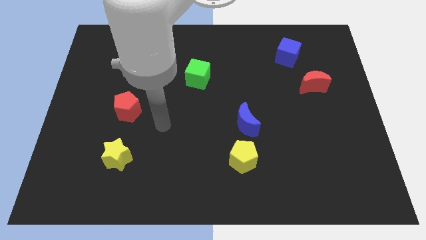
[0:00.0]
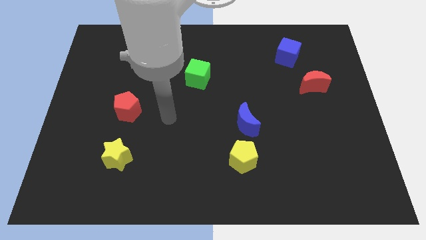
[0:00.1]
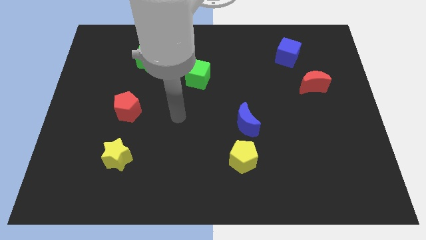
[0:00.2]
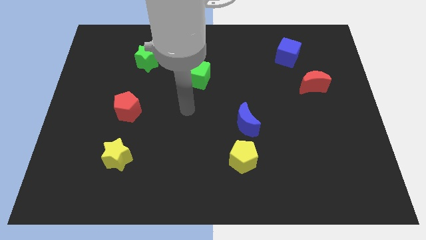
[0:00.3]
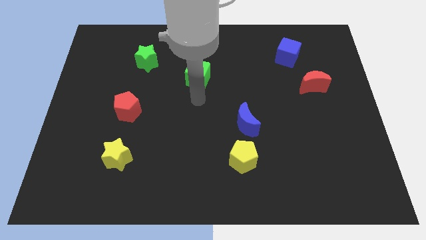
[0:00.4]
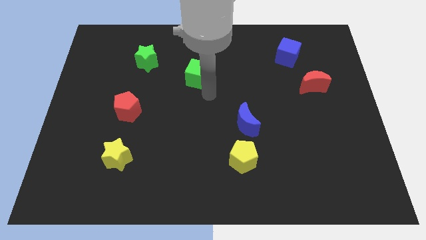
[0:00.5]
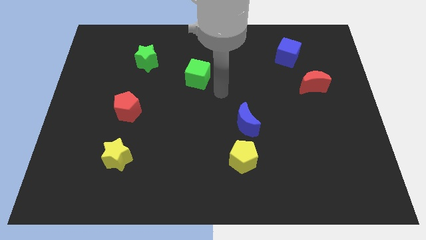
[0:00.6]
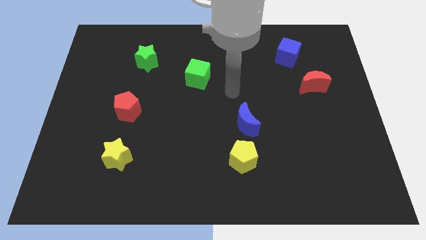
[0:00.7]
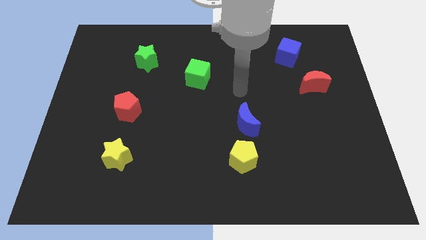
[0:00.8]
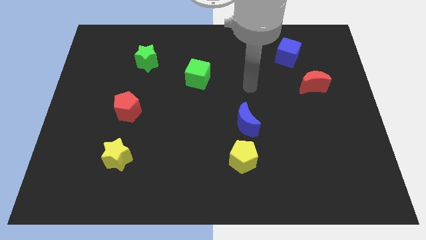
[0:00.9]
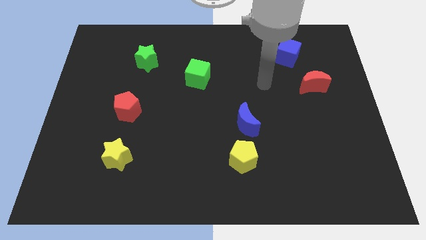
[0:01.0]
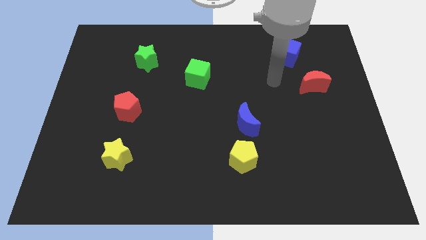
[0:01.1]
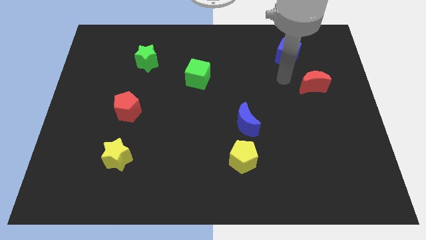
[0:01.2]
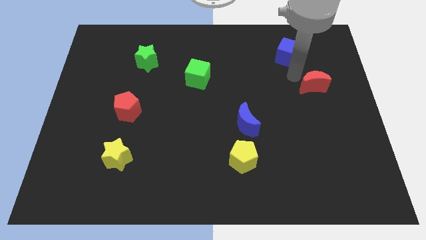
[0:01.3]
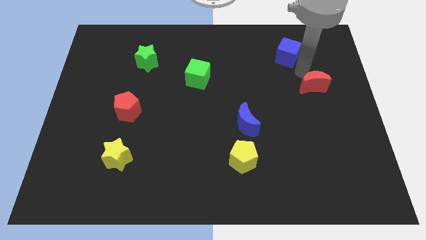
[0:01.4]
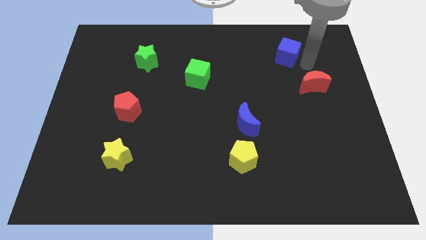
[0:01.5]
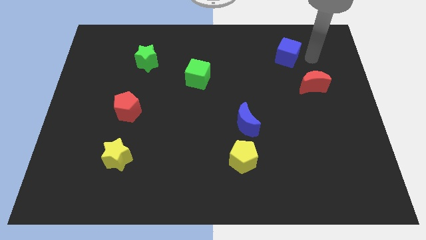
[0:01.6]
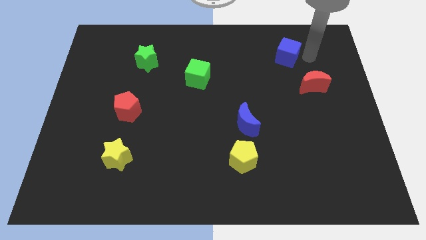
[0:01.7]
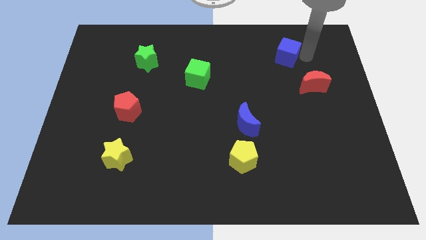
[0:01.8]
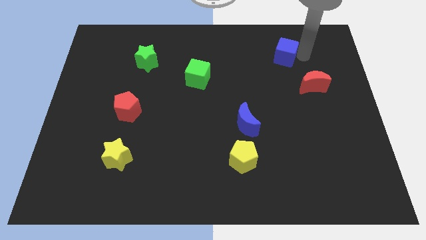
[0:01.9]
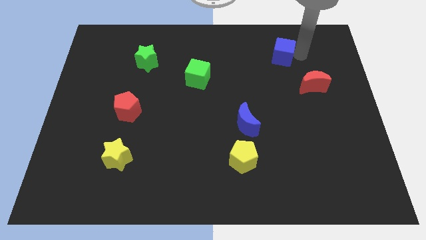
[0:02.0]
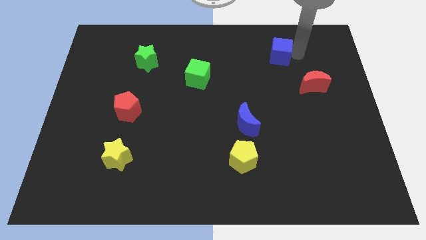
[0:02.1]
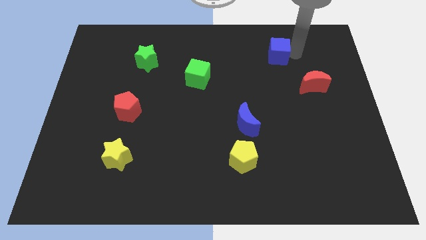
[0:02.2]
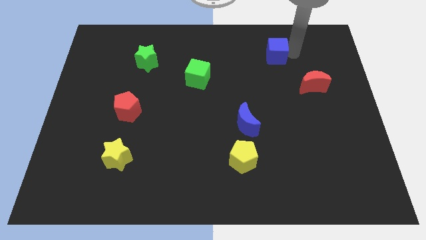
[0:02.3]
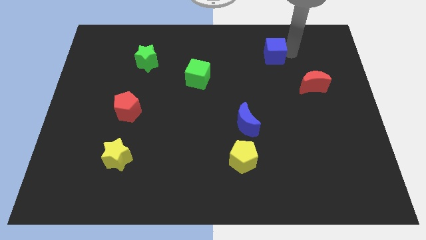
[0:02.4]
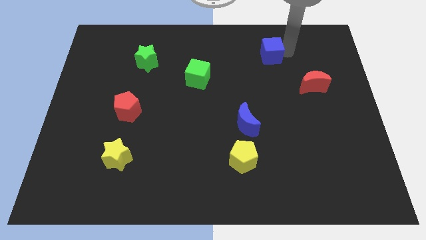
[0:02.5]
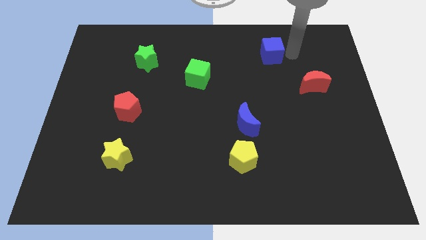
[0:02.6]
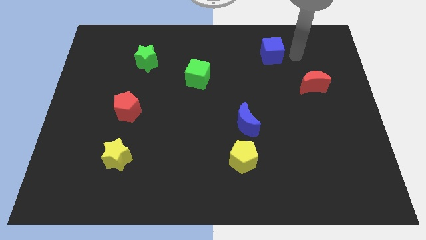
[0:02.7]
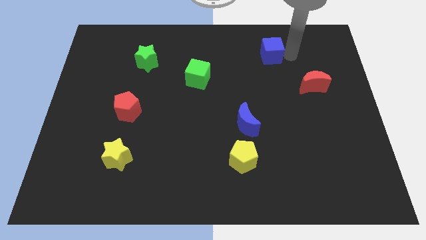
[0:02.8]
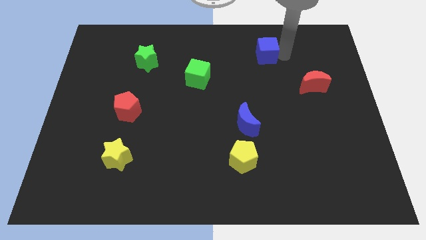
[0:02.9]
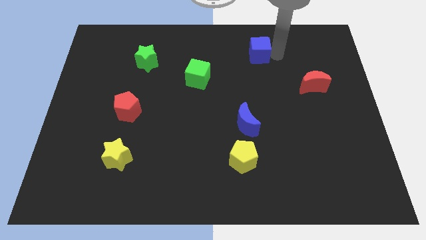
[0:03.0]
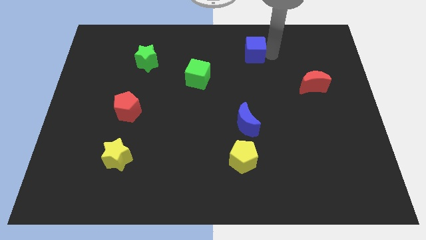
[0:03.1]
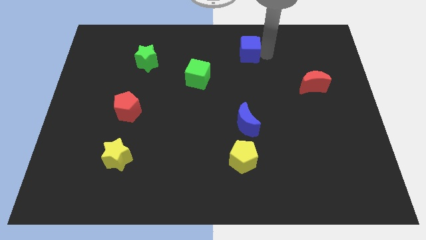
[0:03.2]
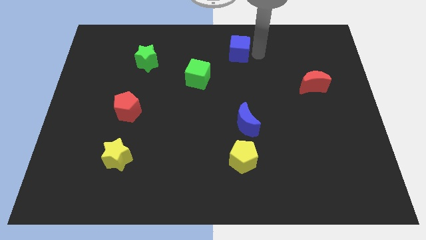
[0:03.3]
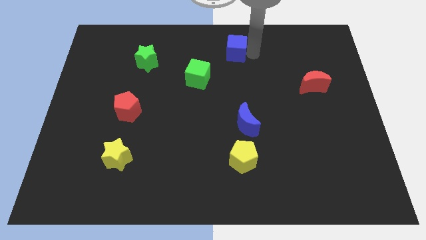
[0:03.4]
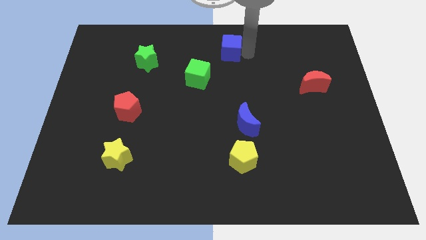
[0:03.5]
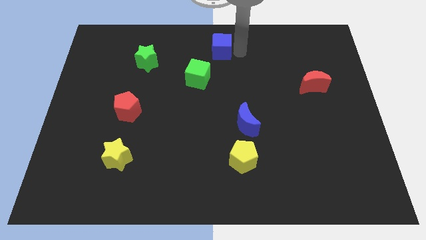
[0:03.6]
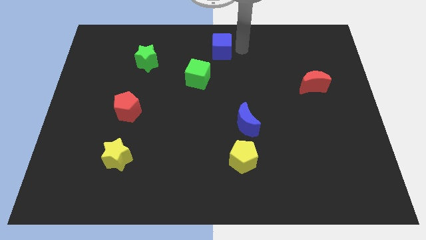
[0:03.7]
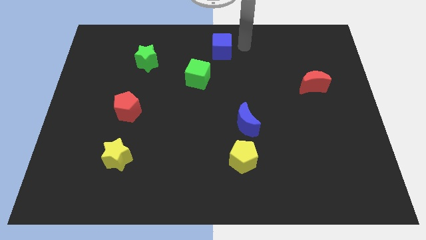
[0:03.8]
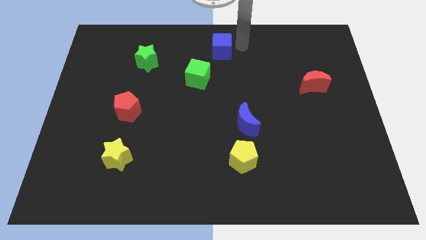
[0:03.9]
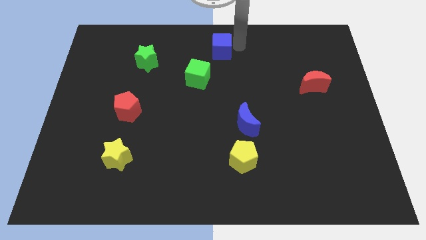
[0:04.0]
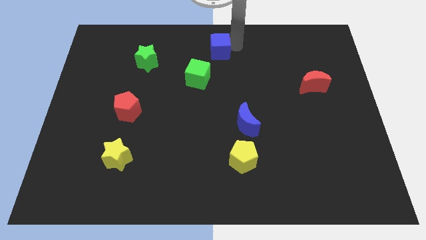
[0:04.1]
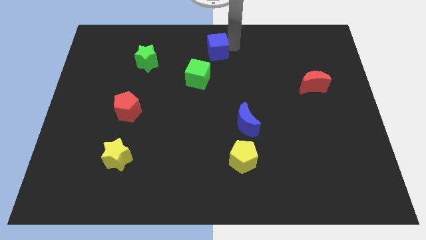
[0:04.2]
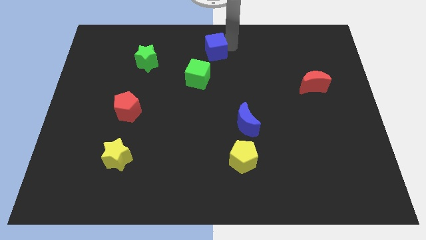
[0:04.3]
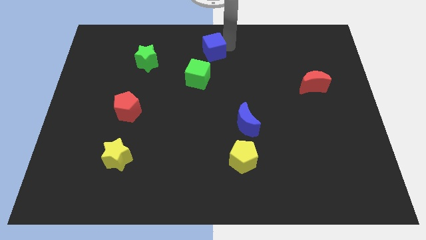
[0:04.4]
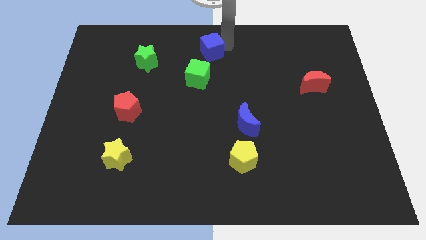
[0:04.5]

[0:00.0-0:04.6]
slide the blue cube left

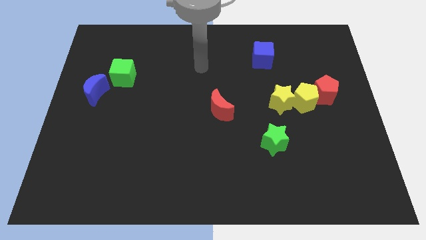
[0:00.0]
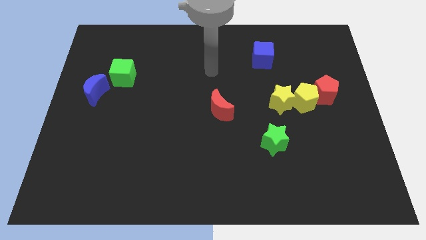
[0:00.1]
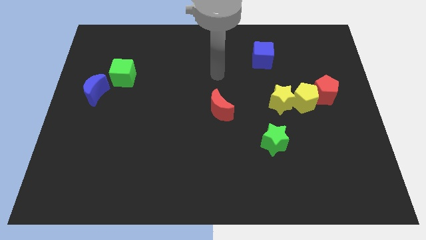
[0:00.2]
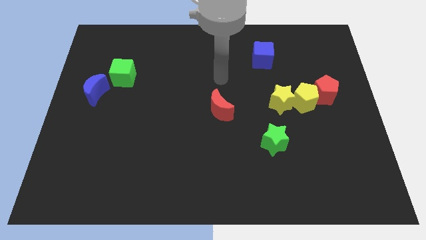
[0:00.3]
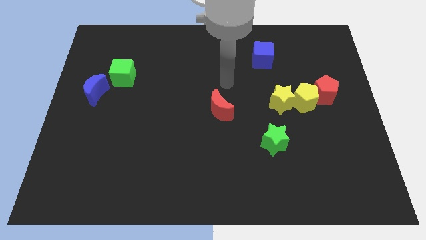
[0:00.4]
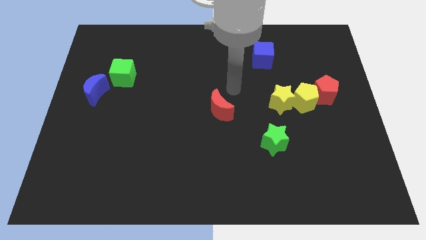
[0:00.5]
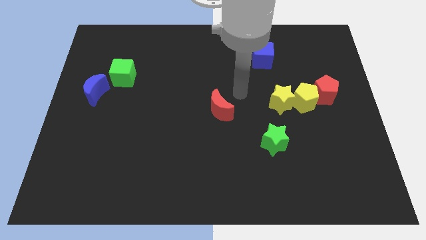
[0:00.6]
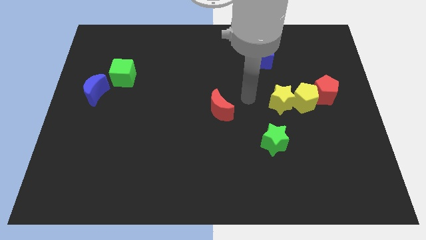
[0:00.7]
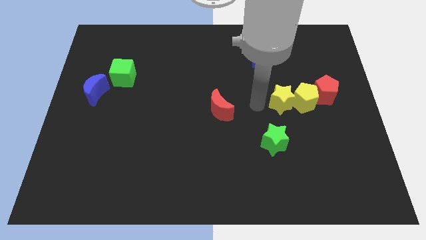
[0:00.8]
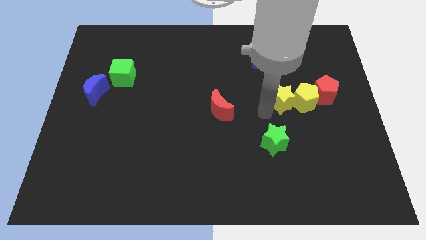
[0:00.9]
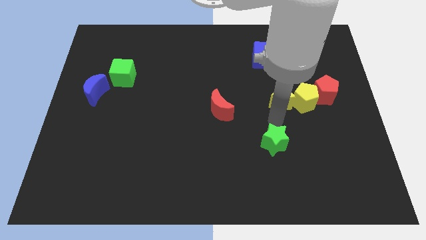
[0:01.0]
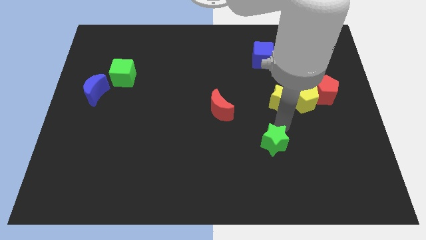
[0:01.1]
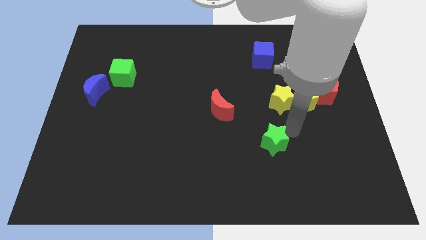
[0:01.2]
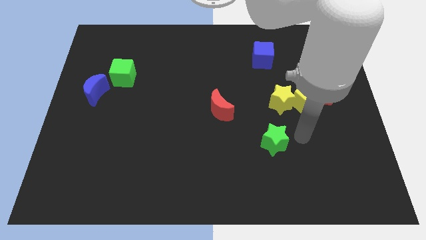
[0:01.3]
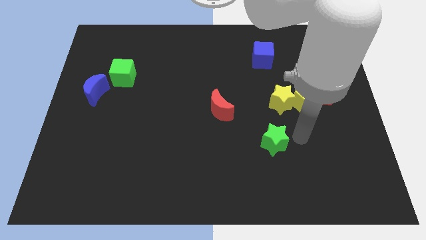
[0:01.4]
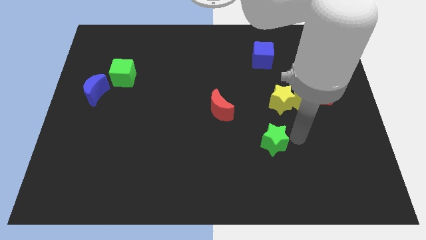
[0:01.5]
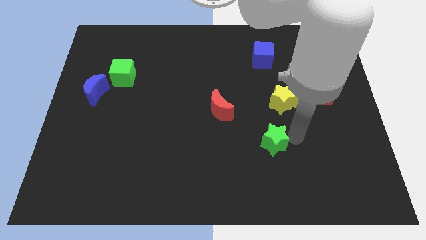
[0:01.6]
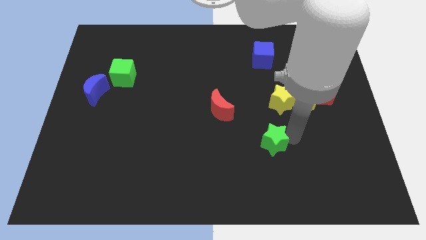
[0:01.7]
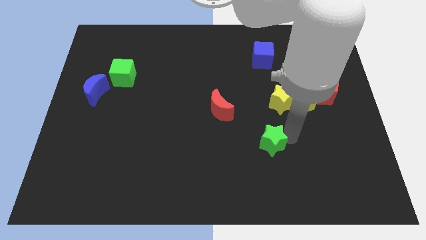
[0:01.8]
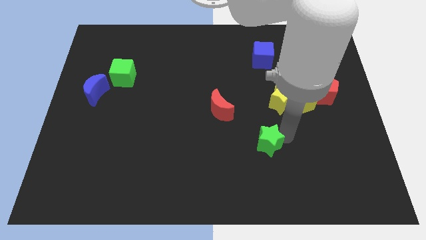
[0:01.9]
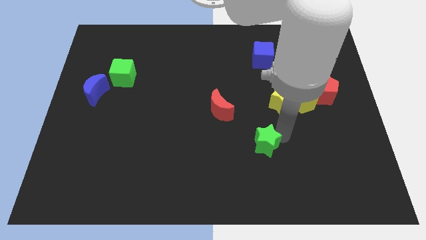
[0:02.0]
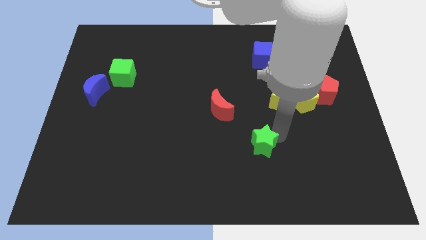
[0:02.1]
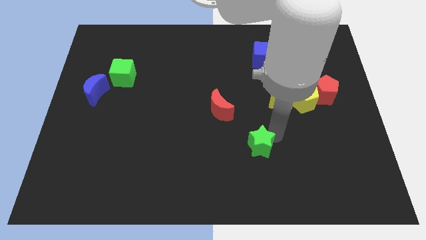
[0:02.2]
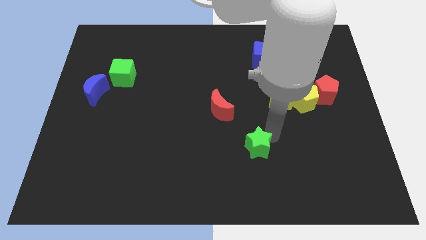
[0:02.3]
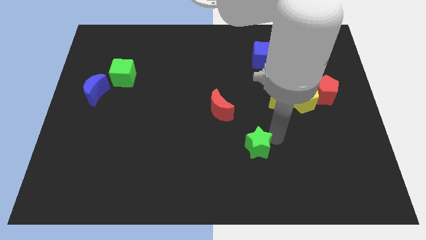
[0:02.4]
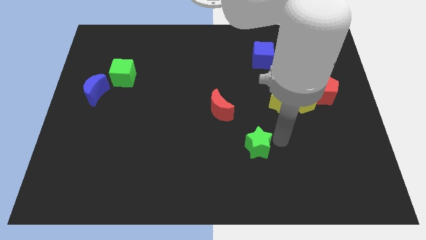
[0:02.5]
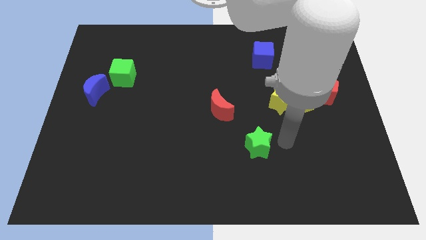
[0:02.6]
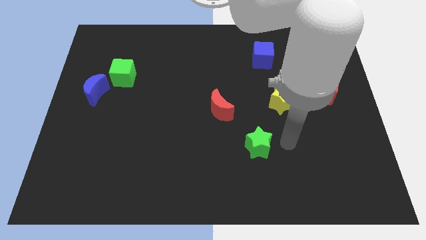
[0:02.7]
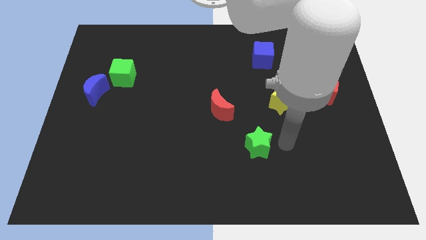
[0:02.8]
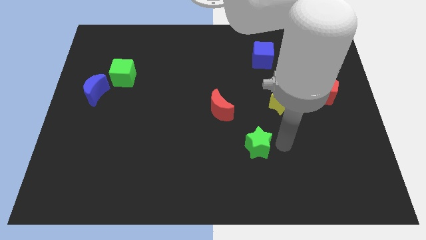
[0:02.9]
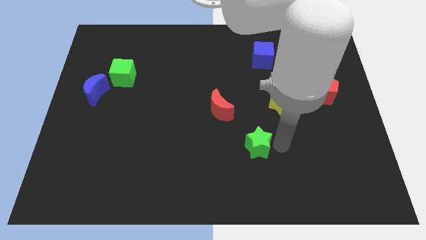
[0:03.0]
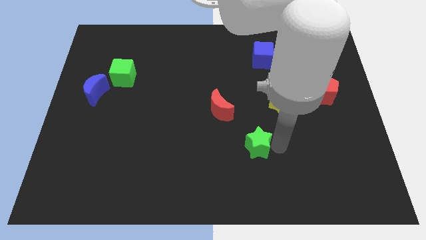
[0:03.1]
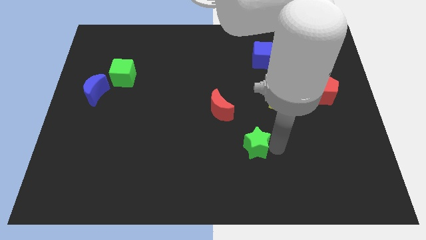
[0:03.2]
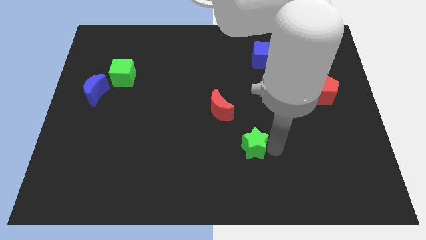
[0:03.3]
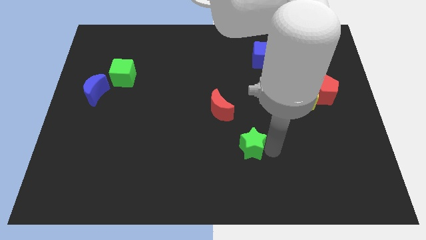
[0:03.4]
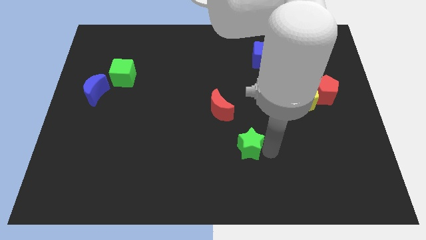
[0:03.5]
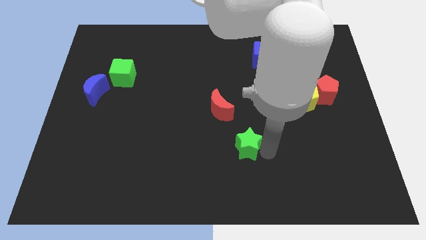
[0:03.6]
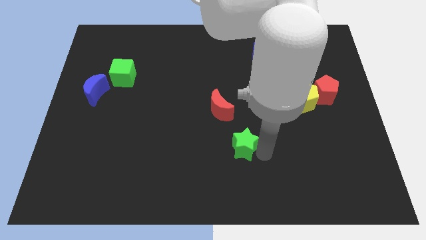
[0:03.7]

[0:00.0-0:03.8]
slide the green star to the left slightly
